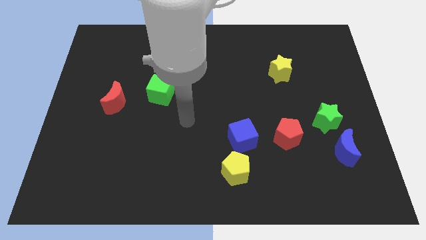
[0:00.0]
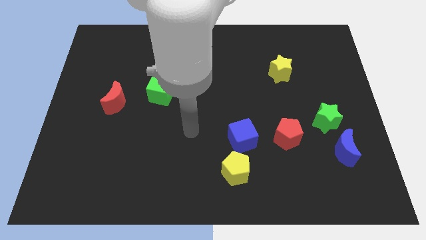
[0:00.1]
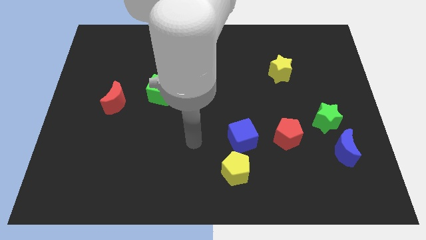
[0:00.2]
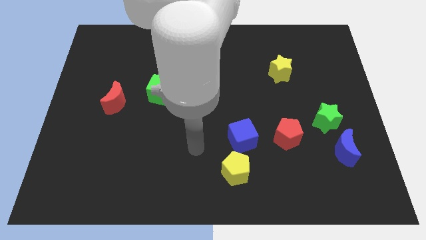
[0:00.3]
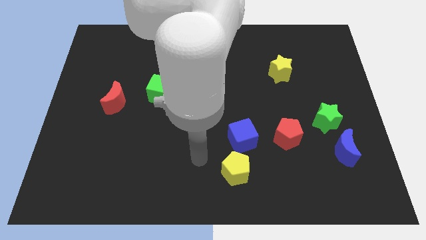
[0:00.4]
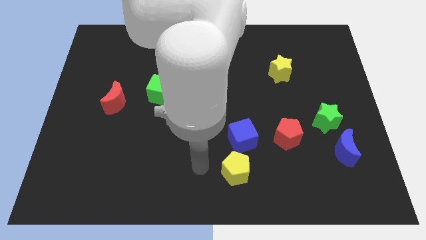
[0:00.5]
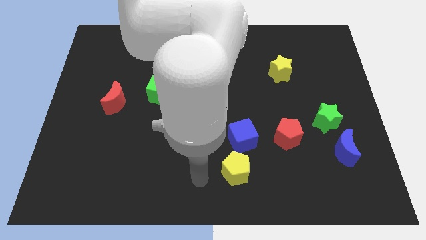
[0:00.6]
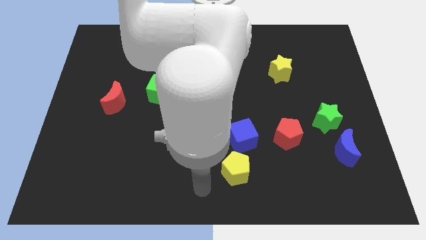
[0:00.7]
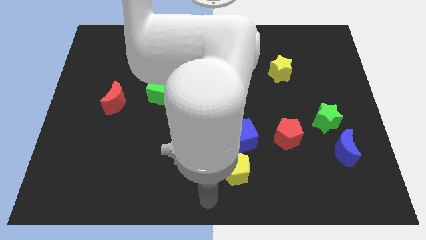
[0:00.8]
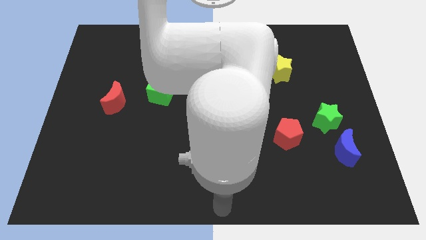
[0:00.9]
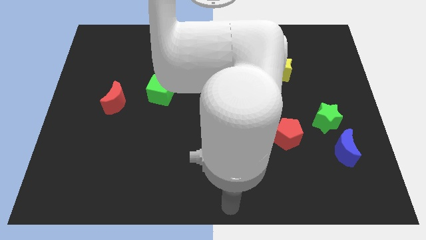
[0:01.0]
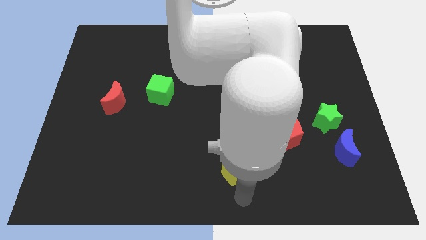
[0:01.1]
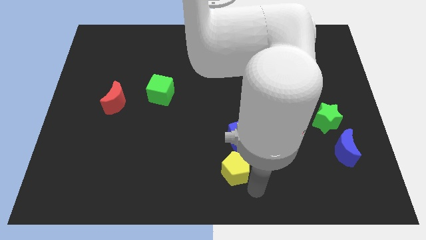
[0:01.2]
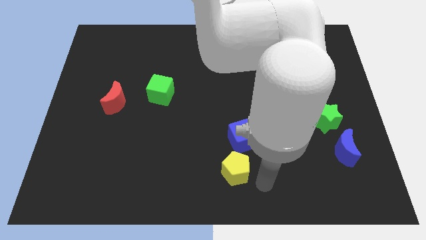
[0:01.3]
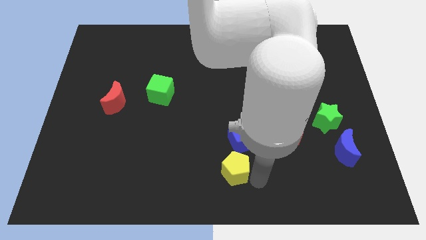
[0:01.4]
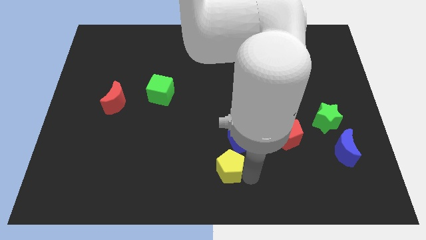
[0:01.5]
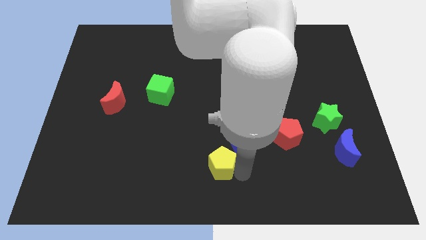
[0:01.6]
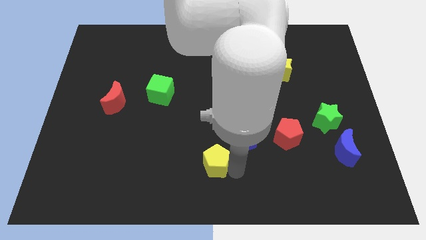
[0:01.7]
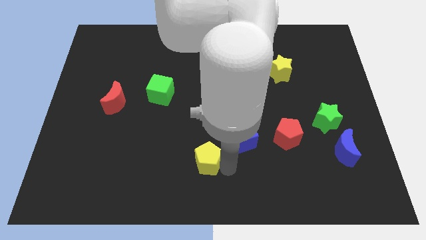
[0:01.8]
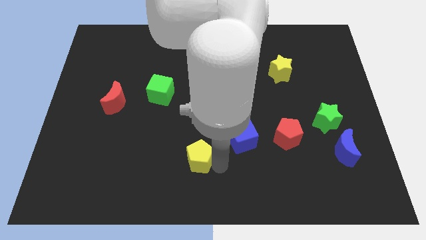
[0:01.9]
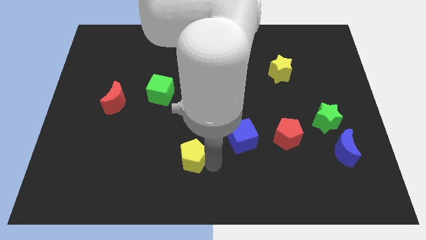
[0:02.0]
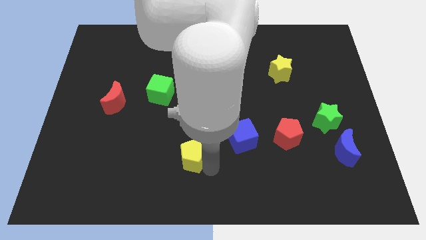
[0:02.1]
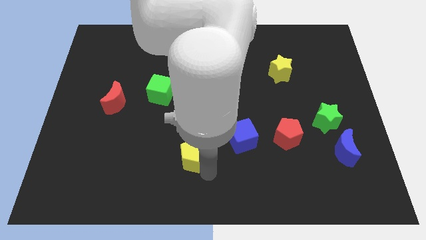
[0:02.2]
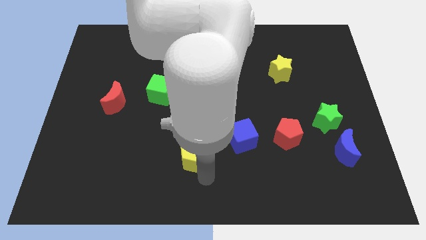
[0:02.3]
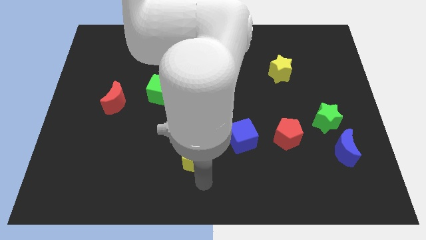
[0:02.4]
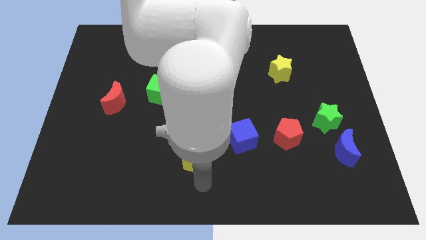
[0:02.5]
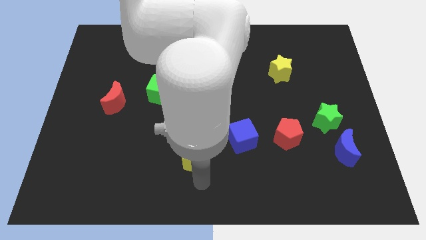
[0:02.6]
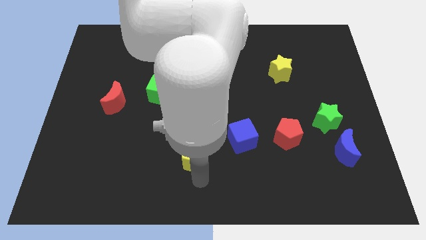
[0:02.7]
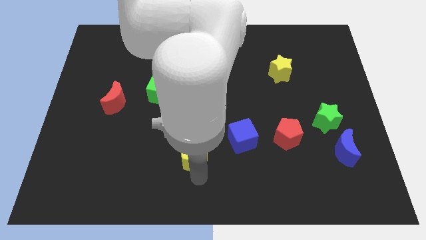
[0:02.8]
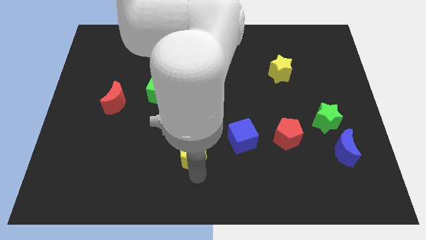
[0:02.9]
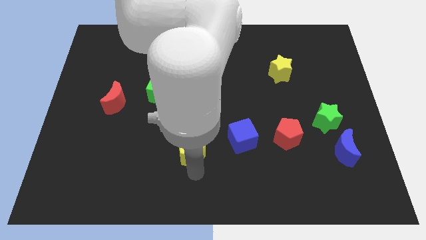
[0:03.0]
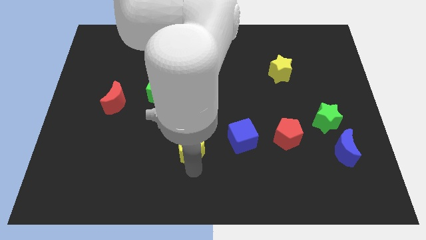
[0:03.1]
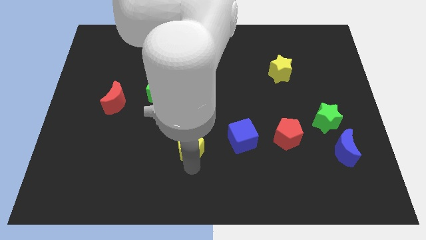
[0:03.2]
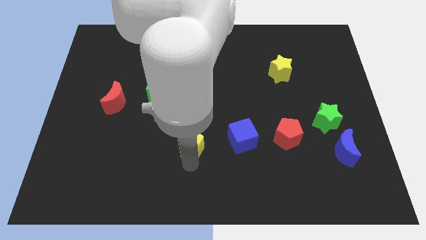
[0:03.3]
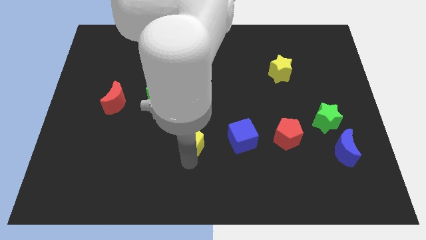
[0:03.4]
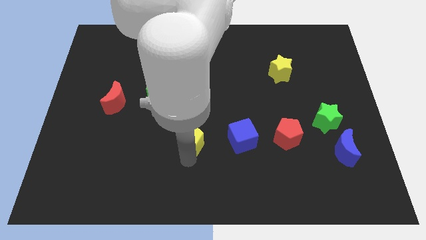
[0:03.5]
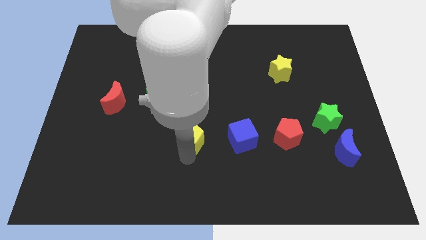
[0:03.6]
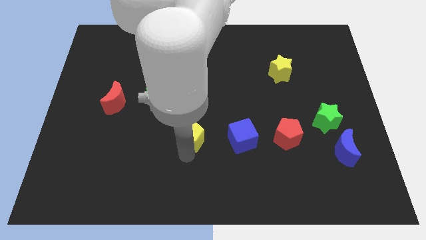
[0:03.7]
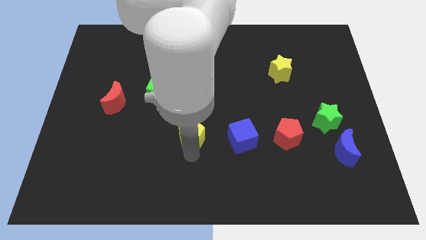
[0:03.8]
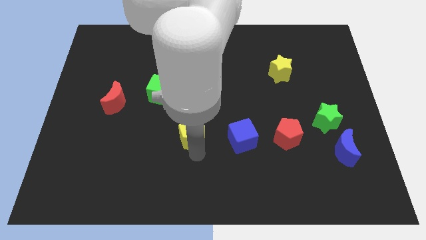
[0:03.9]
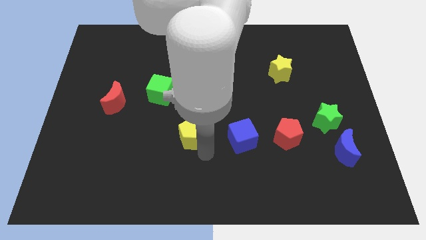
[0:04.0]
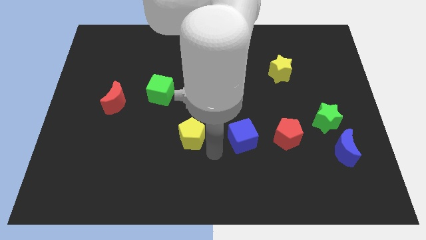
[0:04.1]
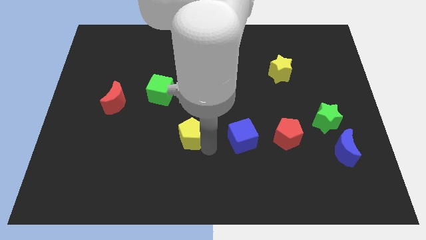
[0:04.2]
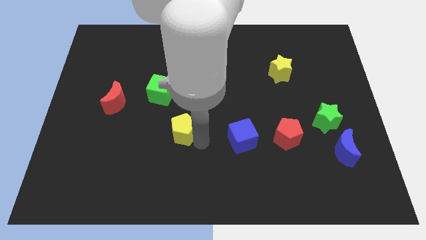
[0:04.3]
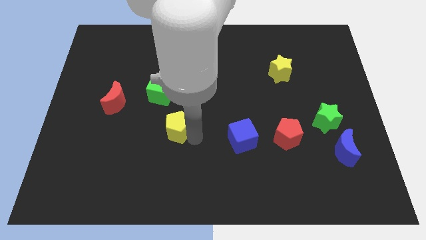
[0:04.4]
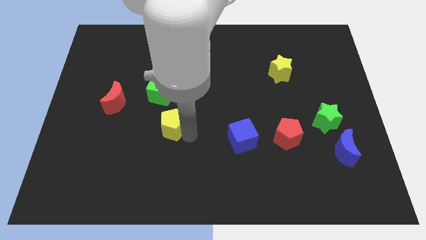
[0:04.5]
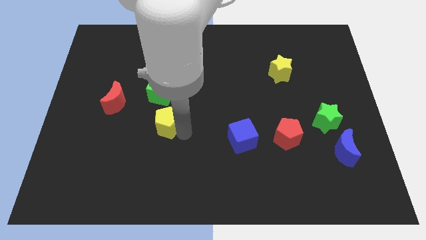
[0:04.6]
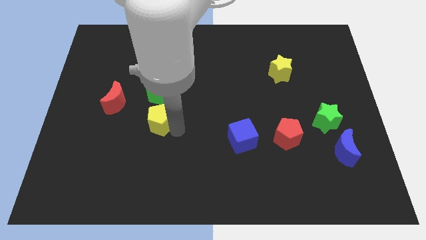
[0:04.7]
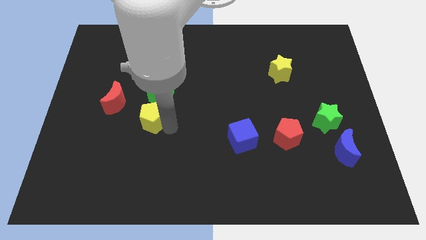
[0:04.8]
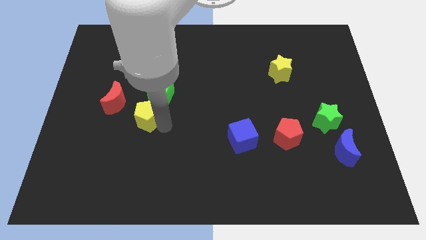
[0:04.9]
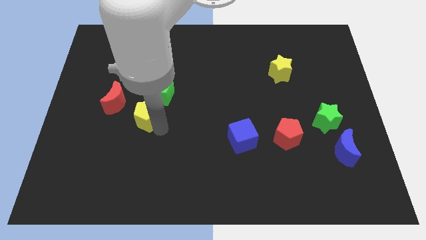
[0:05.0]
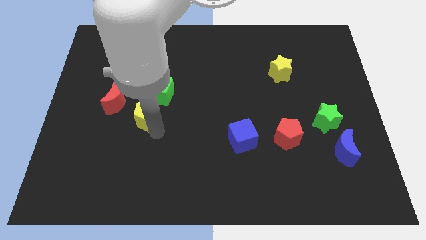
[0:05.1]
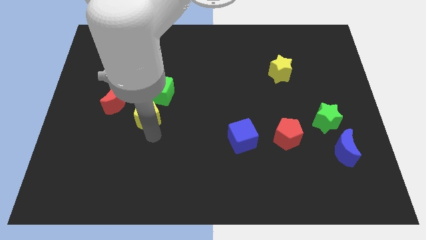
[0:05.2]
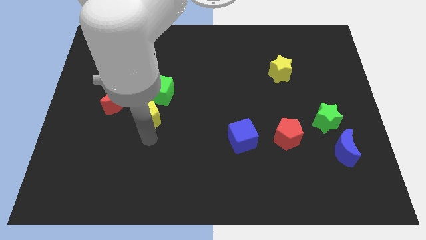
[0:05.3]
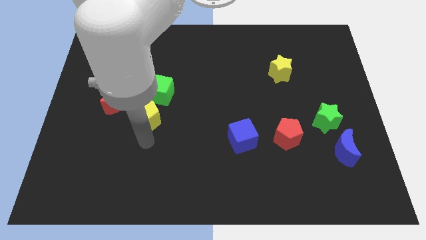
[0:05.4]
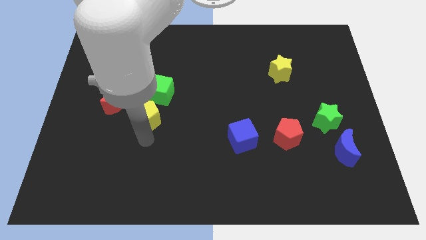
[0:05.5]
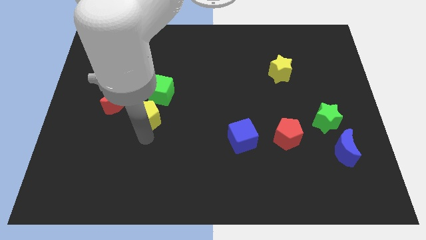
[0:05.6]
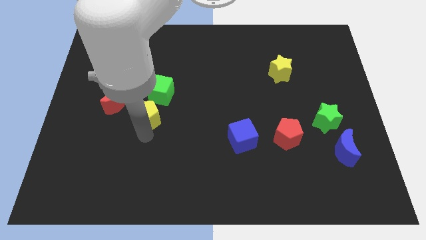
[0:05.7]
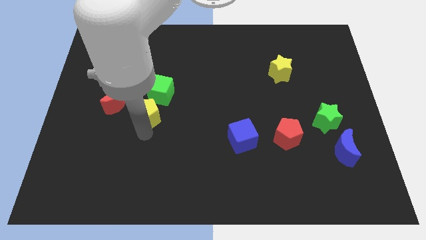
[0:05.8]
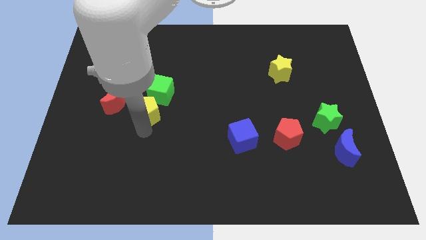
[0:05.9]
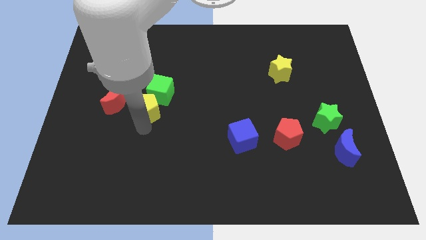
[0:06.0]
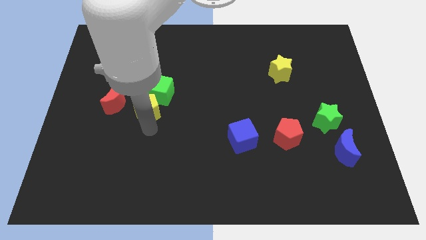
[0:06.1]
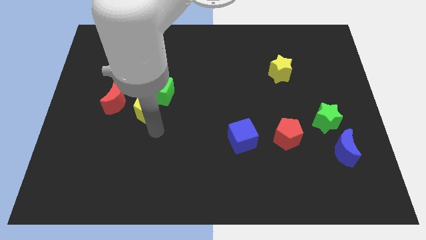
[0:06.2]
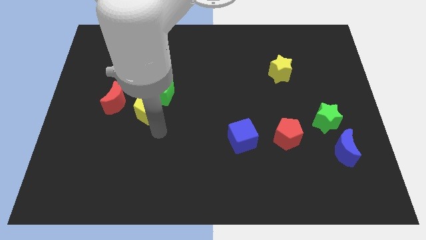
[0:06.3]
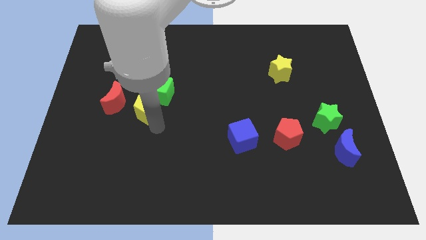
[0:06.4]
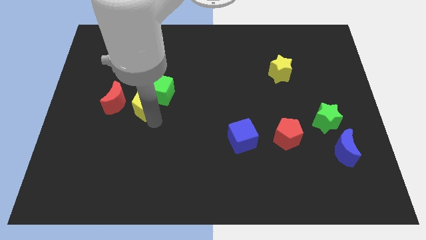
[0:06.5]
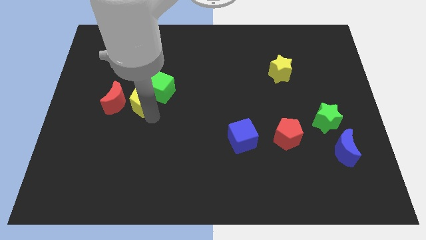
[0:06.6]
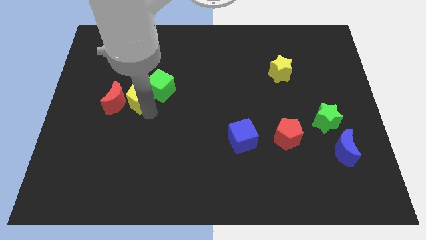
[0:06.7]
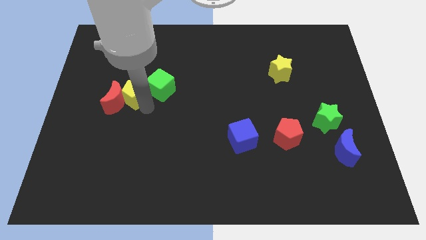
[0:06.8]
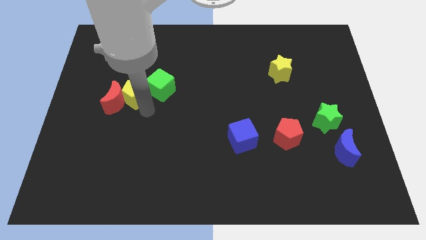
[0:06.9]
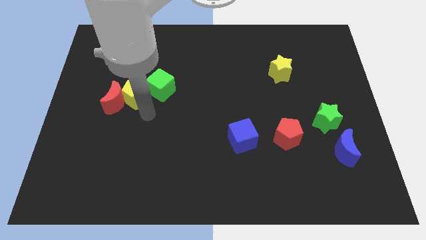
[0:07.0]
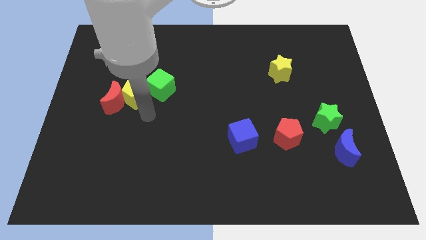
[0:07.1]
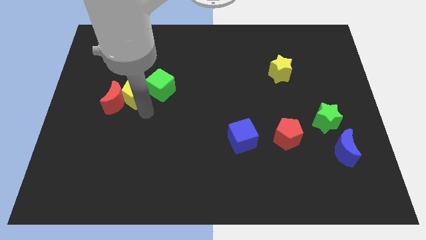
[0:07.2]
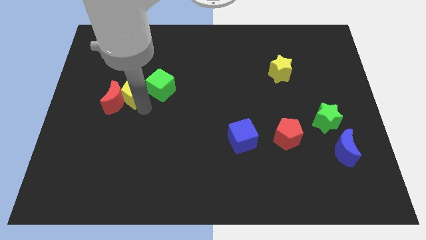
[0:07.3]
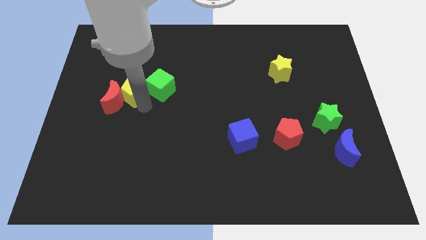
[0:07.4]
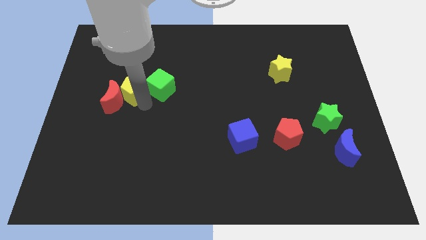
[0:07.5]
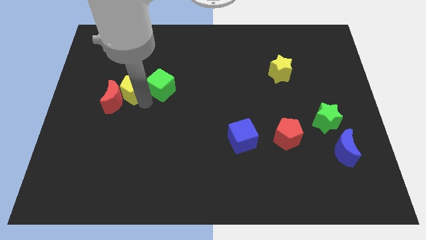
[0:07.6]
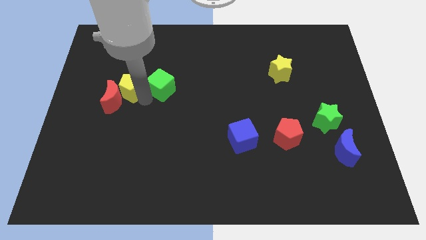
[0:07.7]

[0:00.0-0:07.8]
move the yellow pentagon to the top side of the red moon
